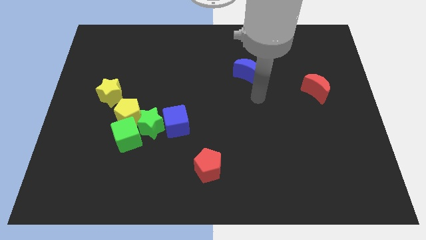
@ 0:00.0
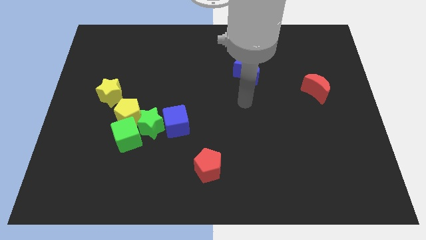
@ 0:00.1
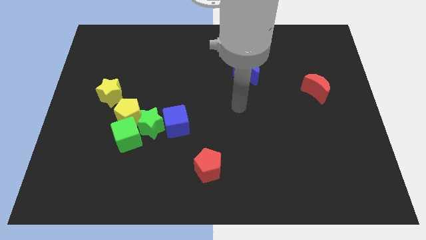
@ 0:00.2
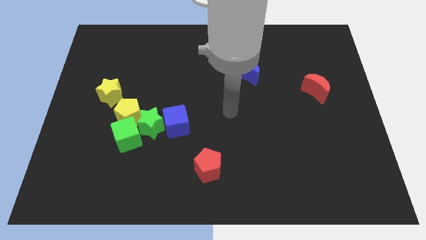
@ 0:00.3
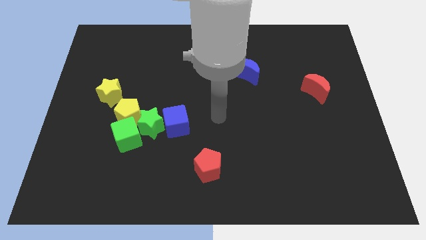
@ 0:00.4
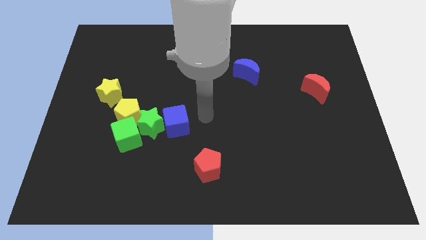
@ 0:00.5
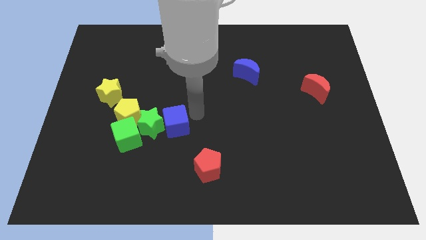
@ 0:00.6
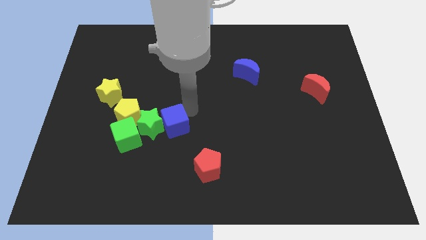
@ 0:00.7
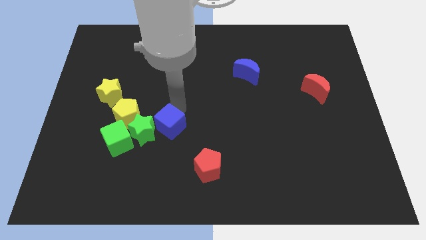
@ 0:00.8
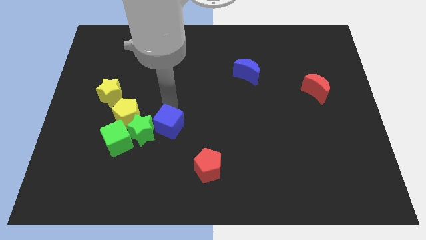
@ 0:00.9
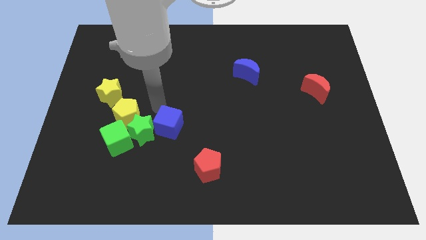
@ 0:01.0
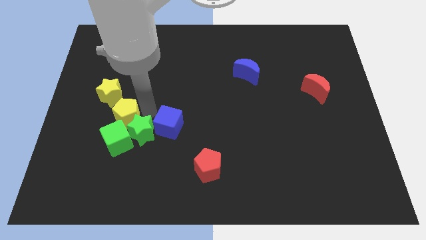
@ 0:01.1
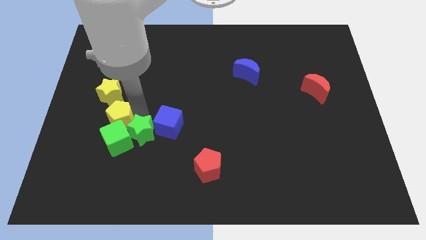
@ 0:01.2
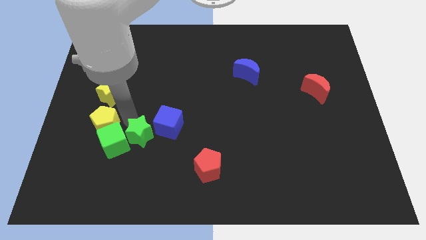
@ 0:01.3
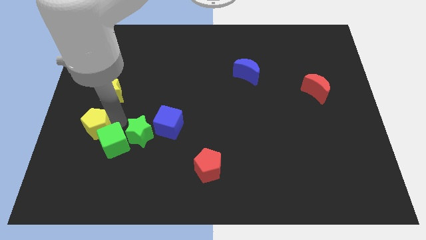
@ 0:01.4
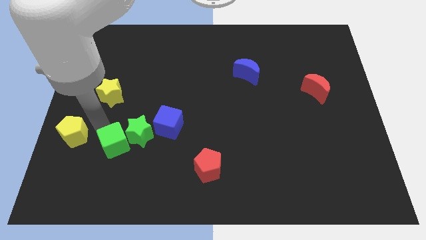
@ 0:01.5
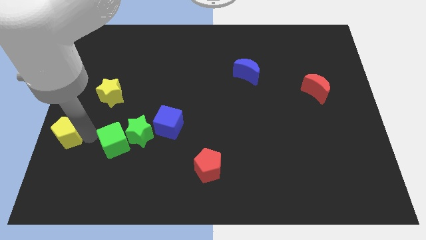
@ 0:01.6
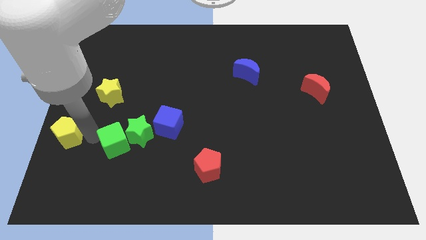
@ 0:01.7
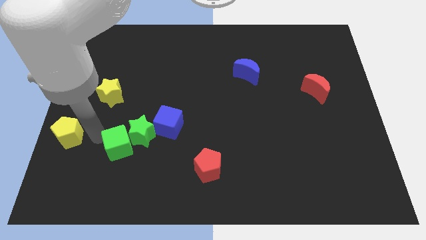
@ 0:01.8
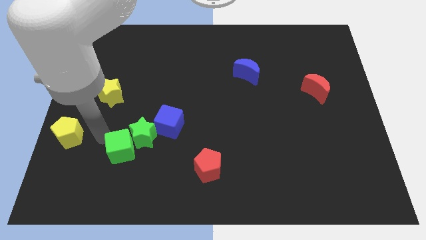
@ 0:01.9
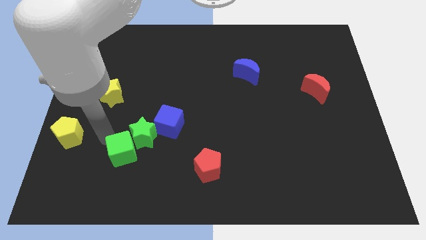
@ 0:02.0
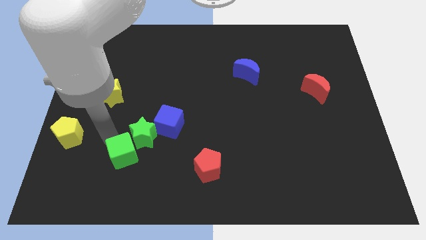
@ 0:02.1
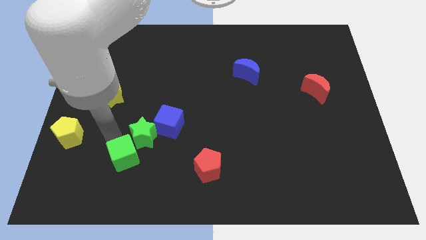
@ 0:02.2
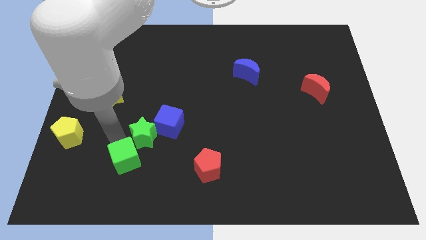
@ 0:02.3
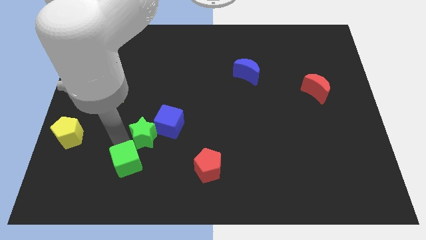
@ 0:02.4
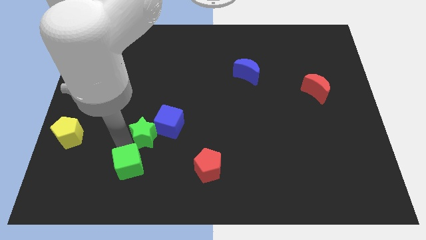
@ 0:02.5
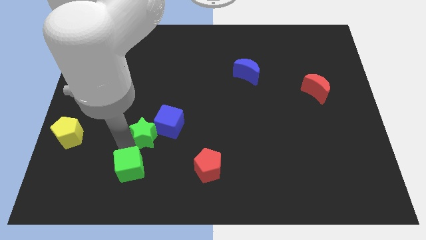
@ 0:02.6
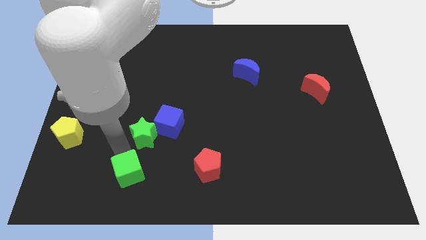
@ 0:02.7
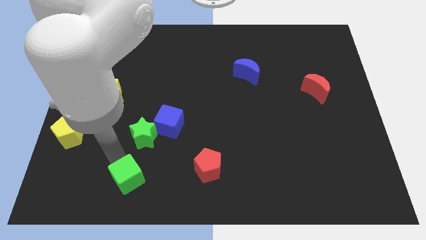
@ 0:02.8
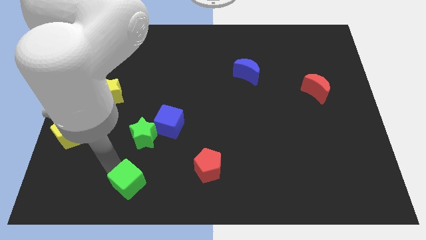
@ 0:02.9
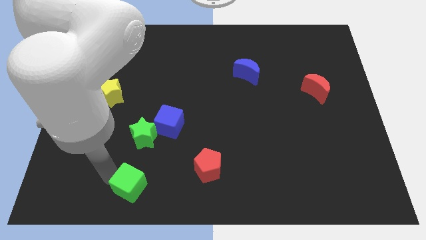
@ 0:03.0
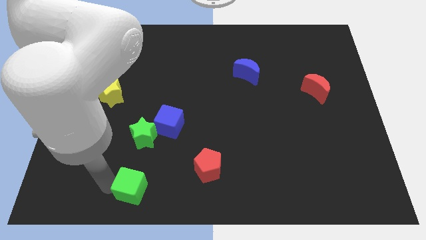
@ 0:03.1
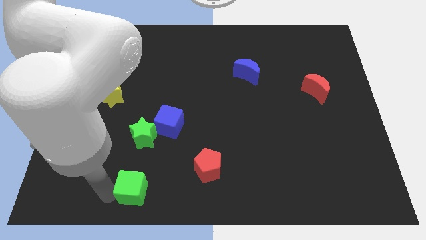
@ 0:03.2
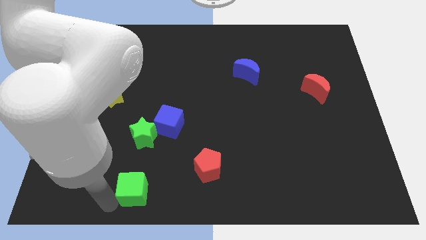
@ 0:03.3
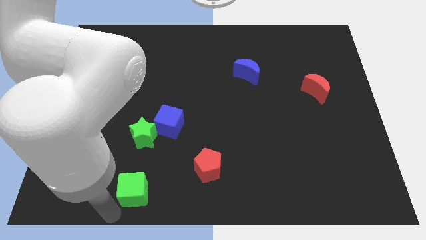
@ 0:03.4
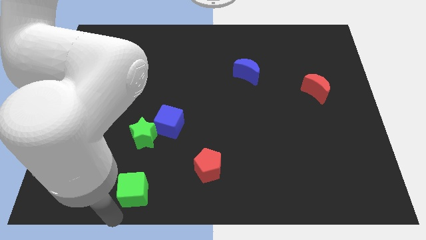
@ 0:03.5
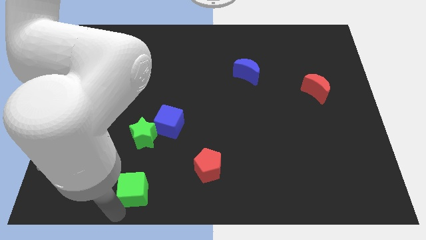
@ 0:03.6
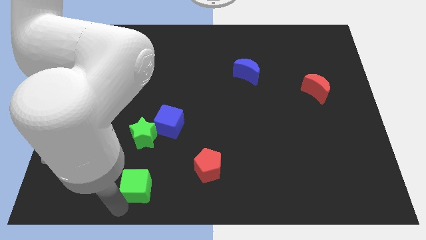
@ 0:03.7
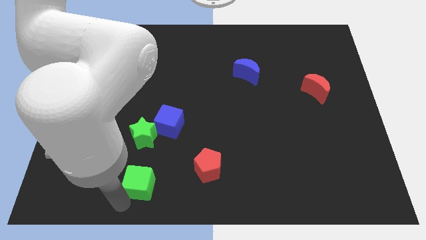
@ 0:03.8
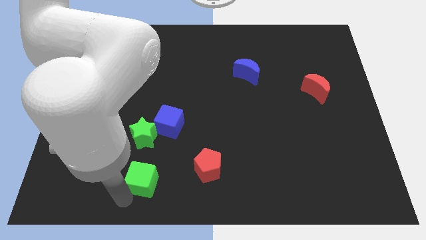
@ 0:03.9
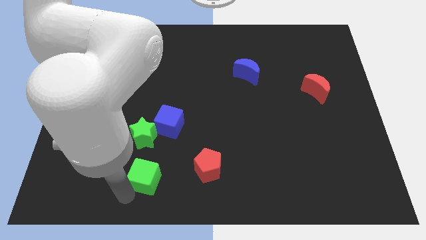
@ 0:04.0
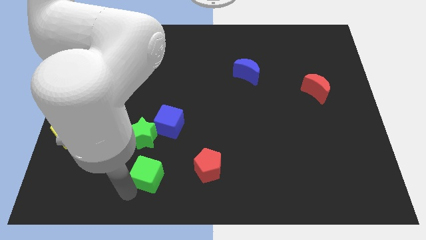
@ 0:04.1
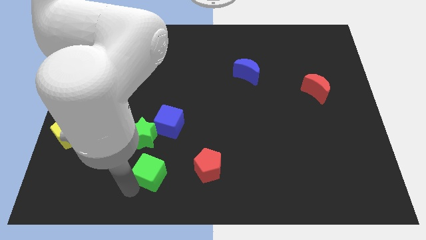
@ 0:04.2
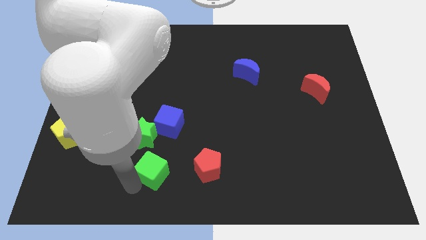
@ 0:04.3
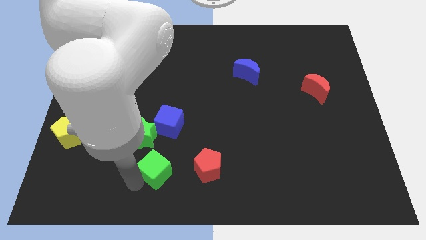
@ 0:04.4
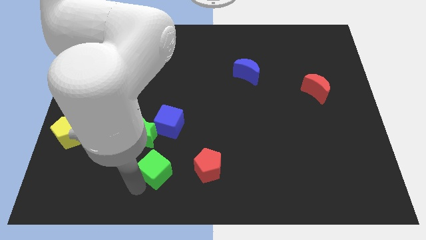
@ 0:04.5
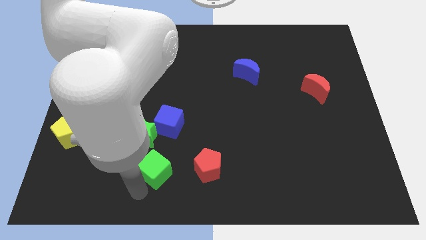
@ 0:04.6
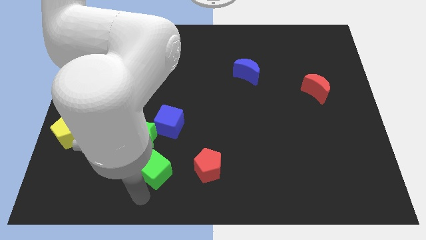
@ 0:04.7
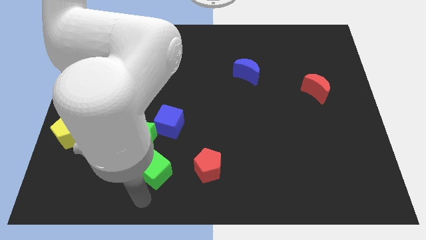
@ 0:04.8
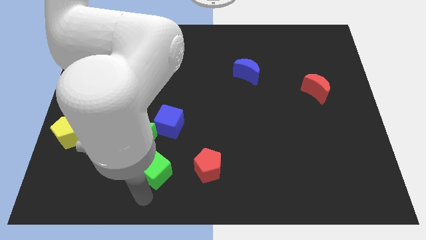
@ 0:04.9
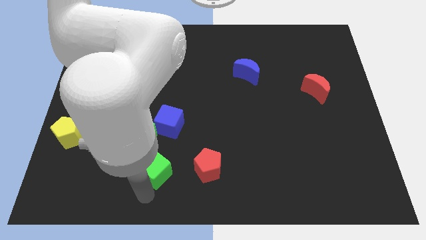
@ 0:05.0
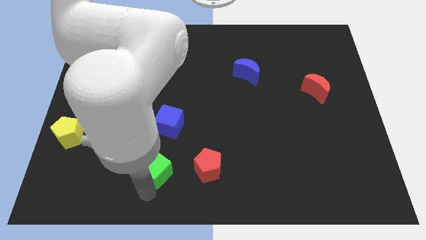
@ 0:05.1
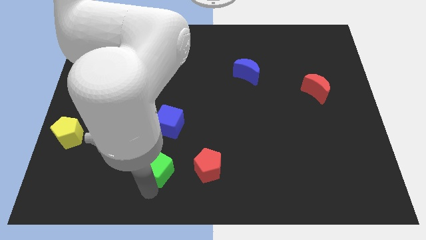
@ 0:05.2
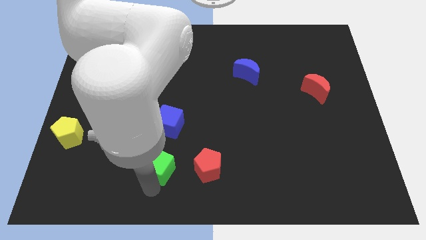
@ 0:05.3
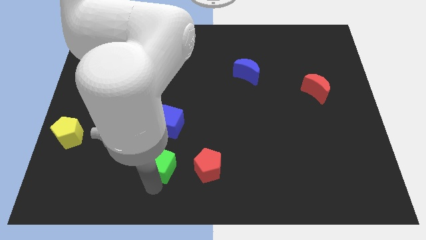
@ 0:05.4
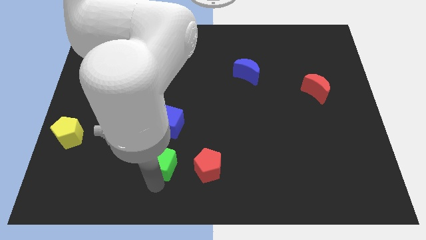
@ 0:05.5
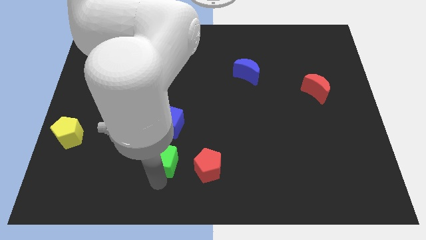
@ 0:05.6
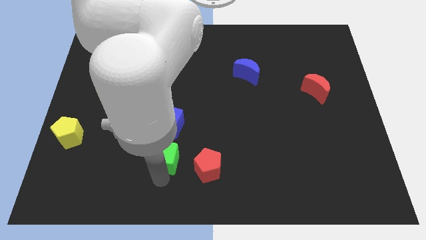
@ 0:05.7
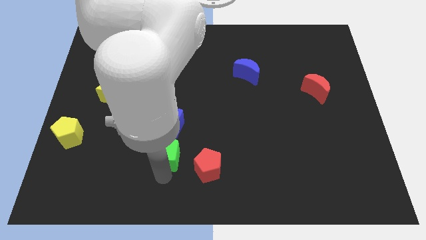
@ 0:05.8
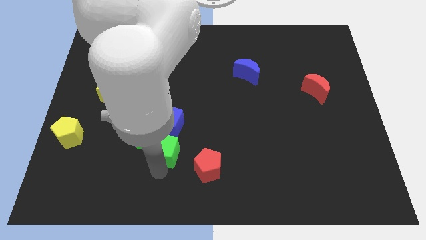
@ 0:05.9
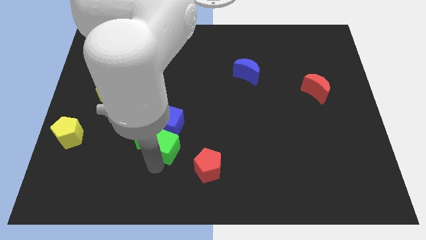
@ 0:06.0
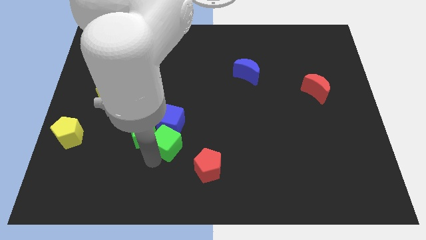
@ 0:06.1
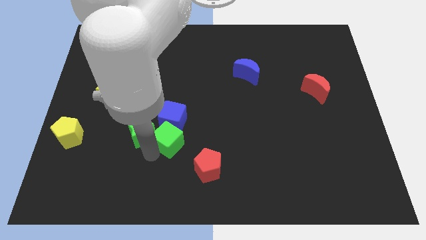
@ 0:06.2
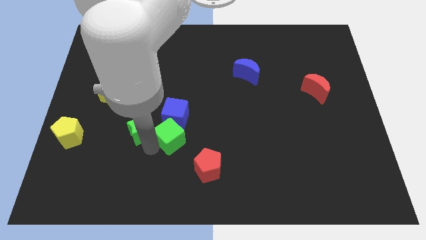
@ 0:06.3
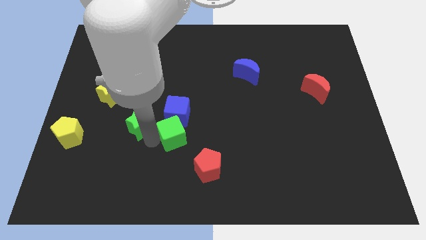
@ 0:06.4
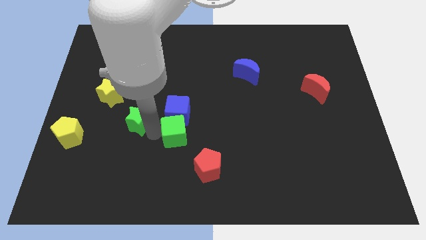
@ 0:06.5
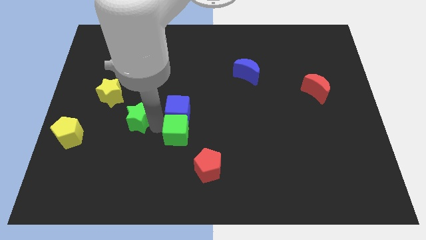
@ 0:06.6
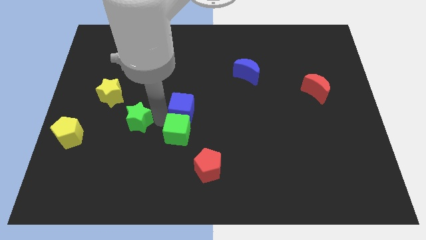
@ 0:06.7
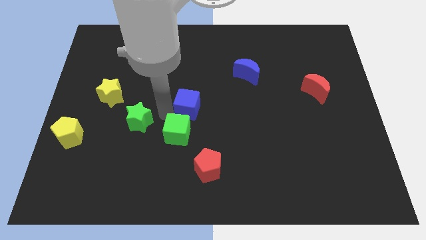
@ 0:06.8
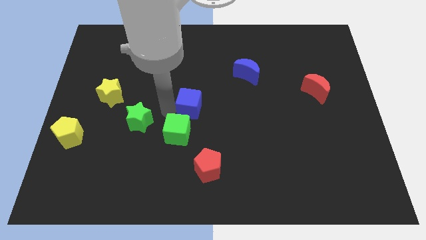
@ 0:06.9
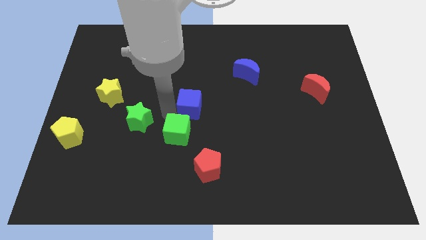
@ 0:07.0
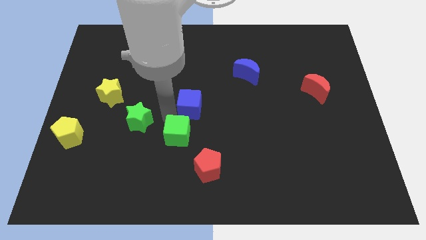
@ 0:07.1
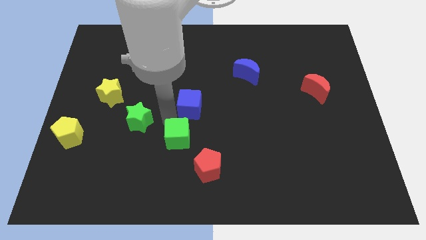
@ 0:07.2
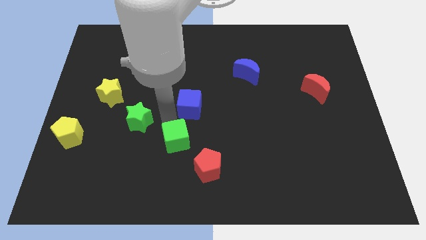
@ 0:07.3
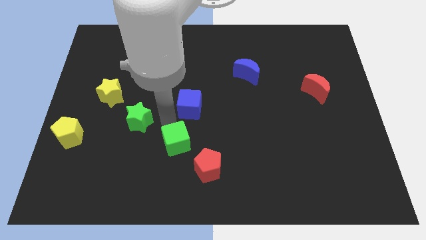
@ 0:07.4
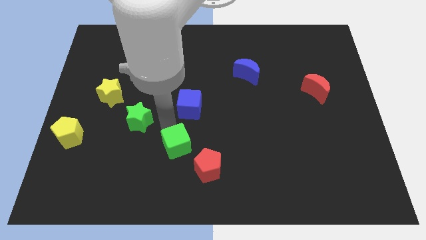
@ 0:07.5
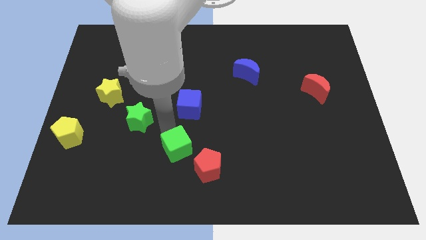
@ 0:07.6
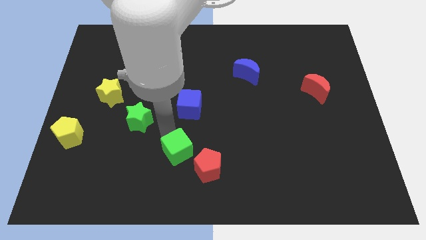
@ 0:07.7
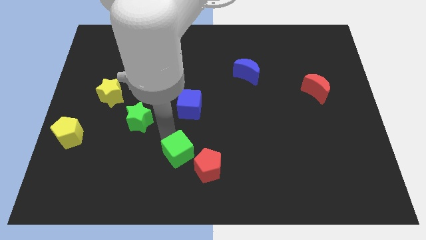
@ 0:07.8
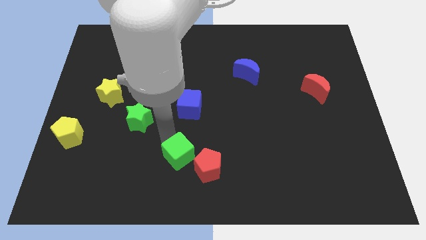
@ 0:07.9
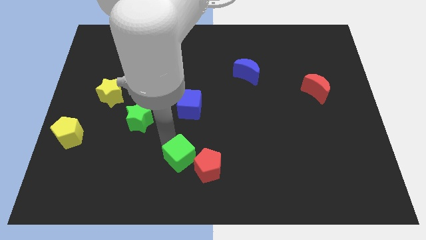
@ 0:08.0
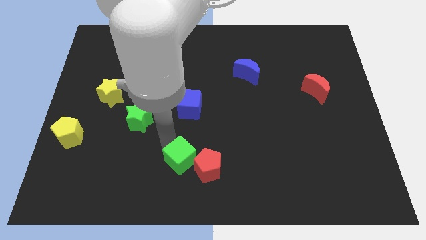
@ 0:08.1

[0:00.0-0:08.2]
move the green cube towards the red pentagon

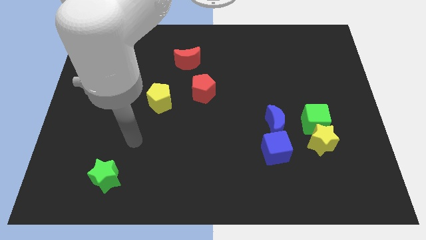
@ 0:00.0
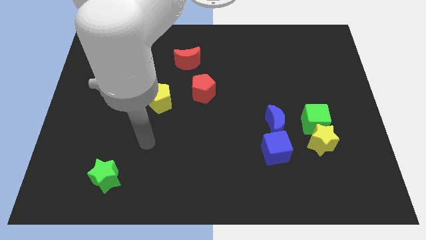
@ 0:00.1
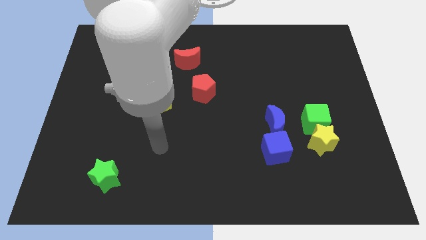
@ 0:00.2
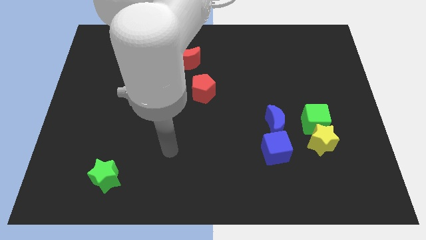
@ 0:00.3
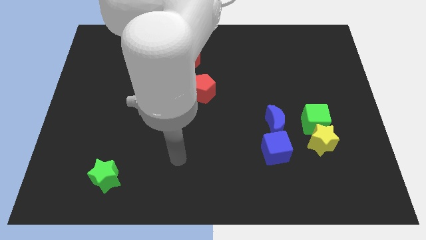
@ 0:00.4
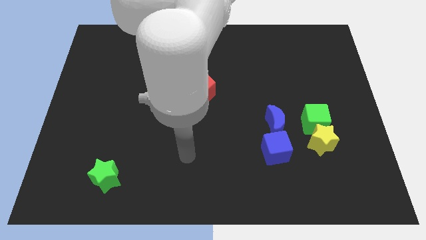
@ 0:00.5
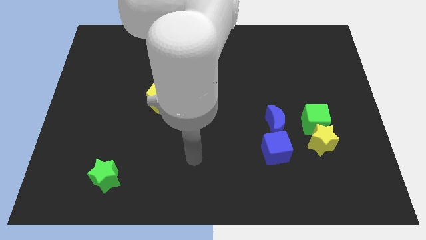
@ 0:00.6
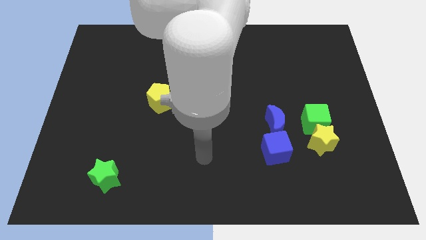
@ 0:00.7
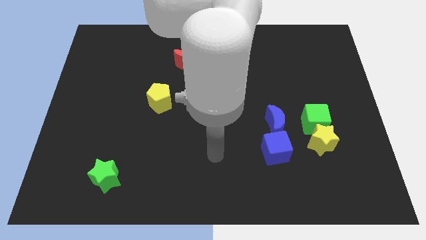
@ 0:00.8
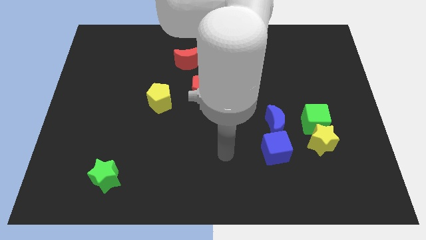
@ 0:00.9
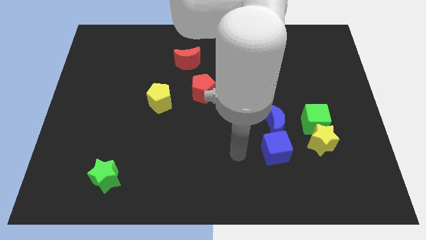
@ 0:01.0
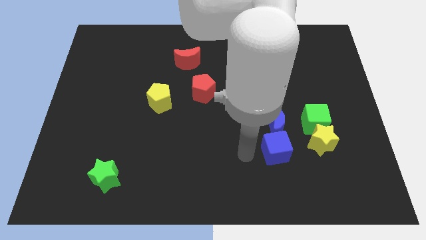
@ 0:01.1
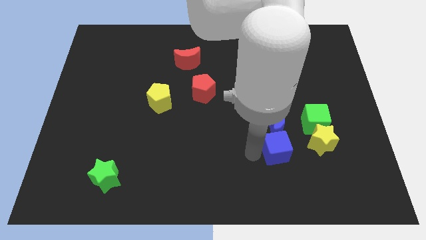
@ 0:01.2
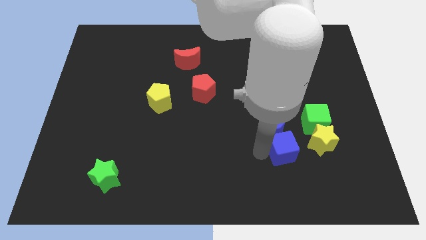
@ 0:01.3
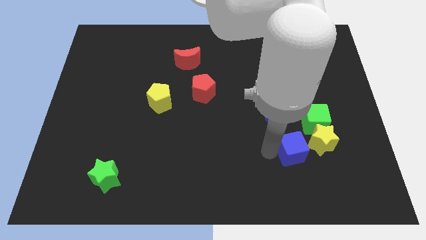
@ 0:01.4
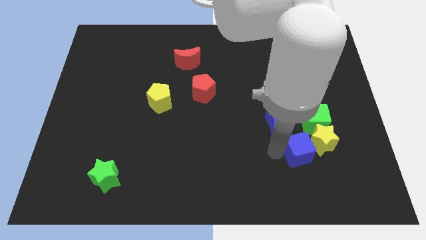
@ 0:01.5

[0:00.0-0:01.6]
push the blue cube next to the yellow star
